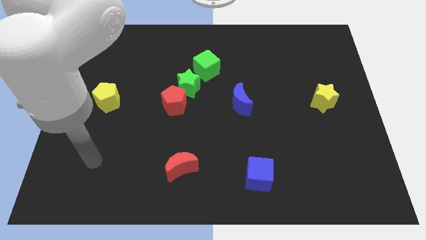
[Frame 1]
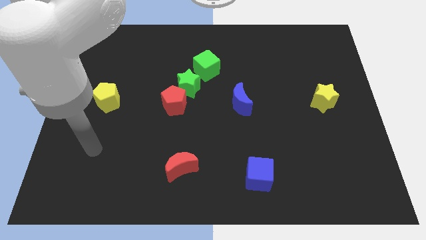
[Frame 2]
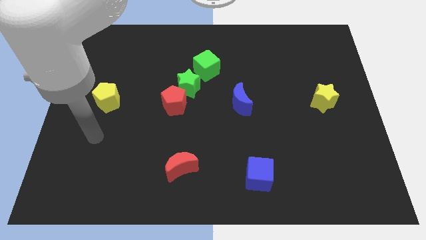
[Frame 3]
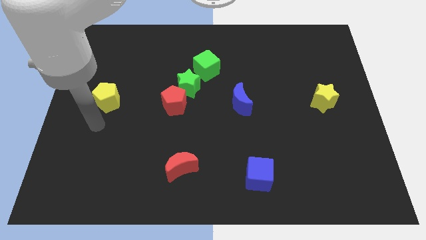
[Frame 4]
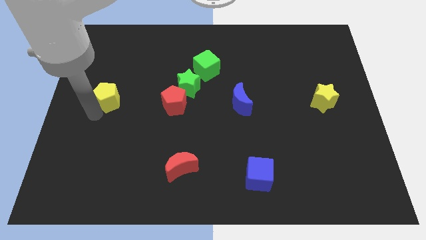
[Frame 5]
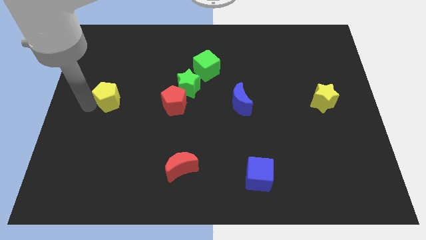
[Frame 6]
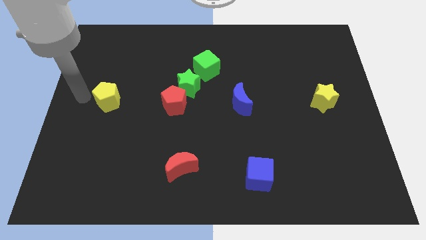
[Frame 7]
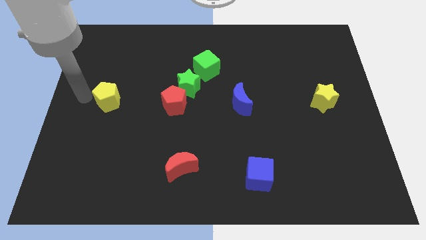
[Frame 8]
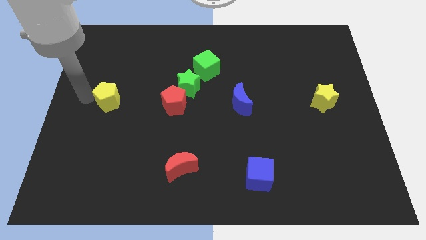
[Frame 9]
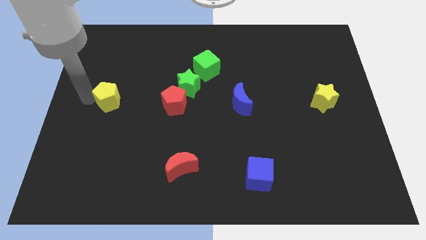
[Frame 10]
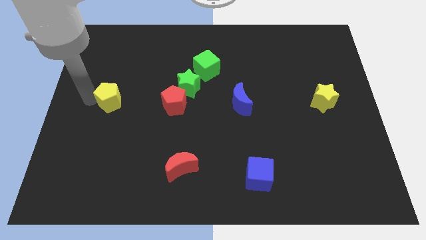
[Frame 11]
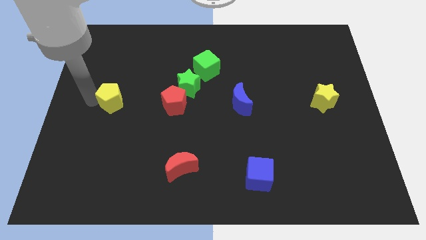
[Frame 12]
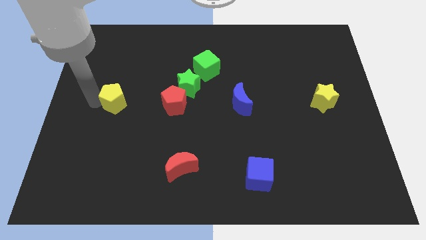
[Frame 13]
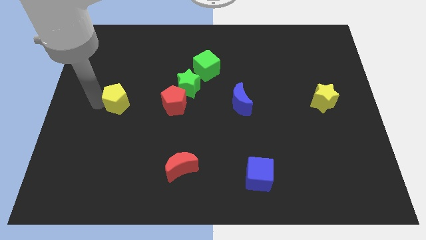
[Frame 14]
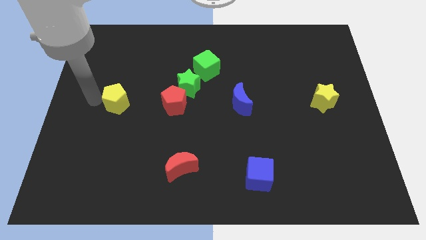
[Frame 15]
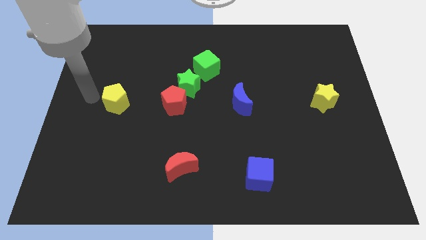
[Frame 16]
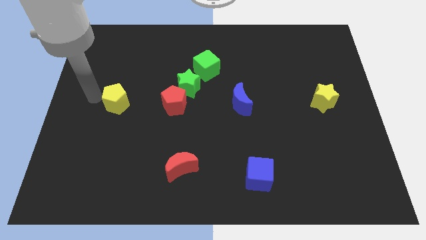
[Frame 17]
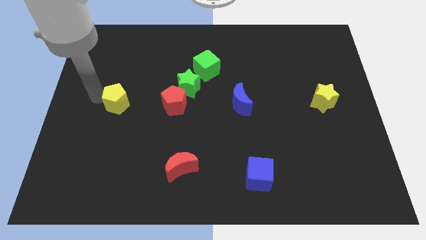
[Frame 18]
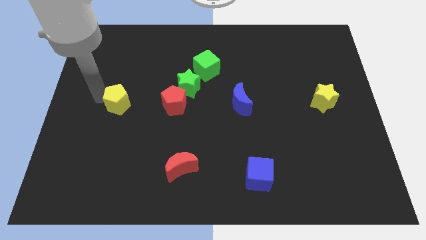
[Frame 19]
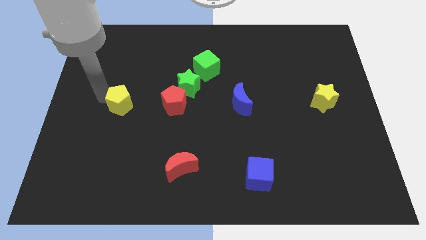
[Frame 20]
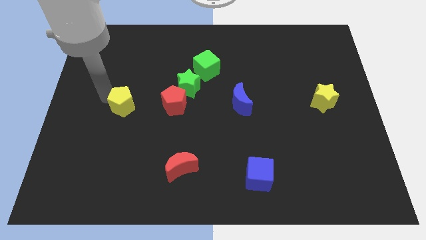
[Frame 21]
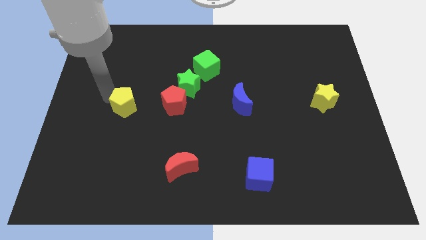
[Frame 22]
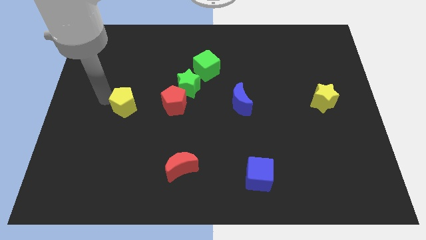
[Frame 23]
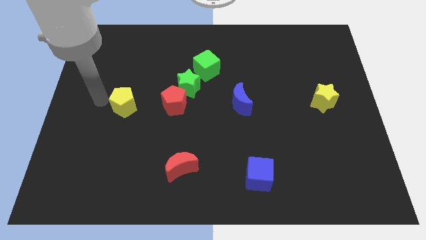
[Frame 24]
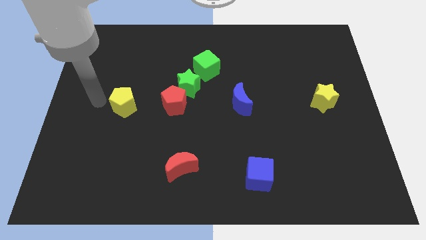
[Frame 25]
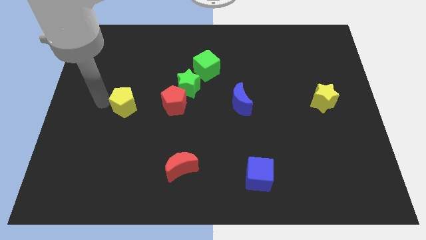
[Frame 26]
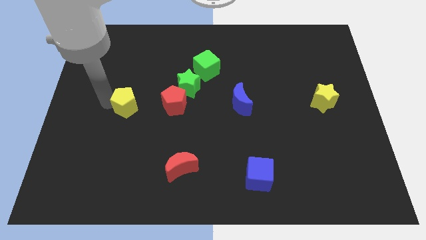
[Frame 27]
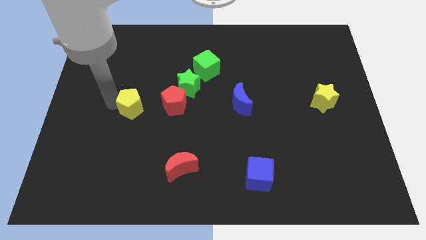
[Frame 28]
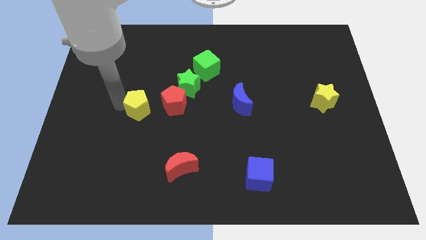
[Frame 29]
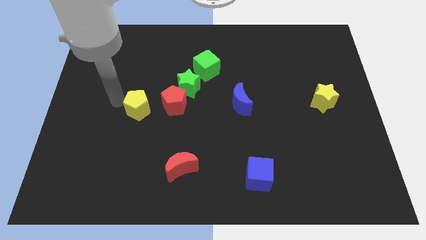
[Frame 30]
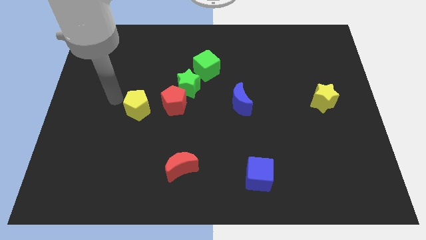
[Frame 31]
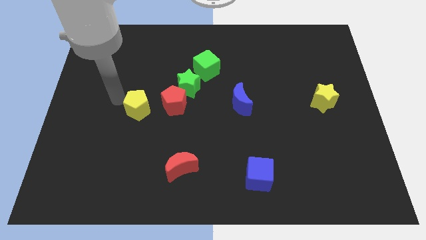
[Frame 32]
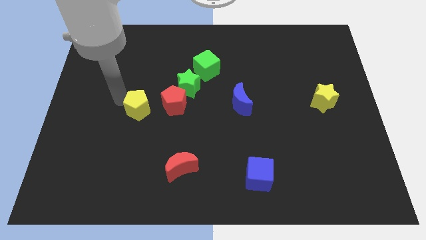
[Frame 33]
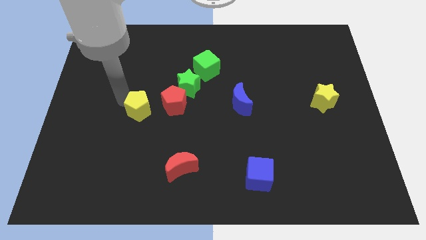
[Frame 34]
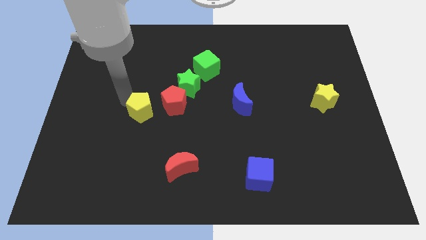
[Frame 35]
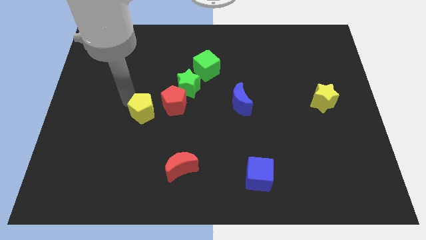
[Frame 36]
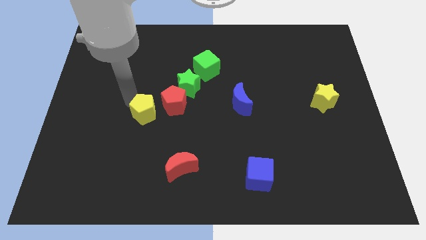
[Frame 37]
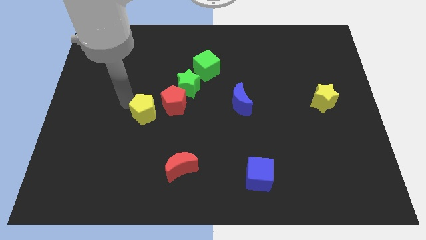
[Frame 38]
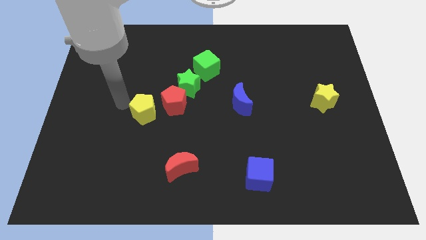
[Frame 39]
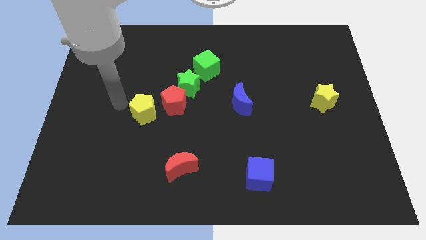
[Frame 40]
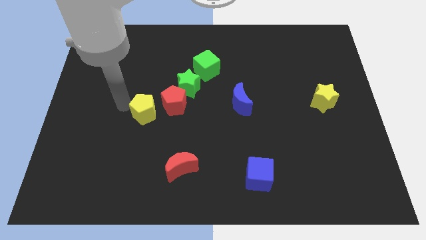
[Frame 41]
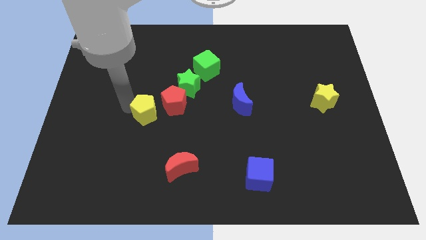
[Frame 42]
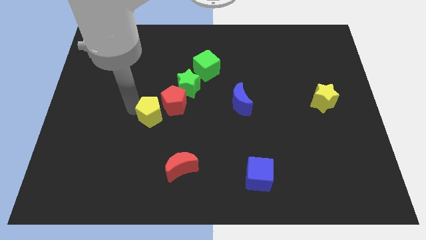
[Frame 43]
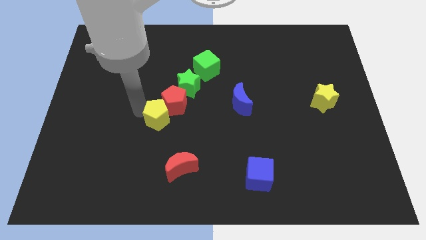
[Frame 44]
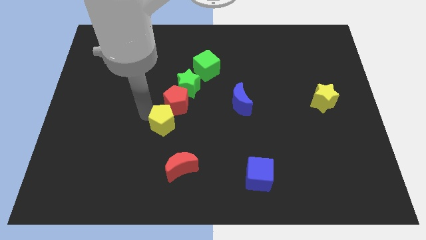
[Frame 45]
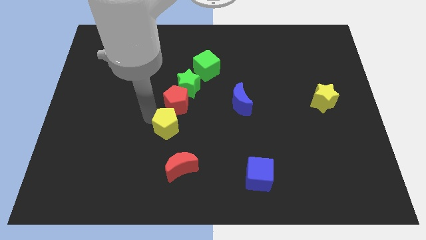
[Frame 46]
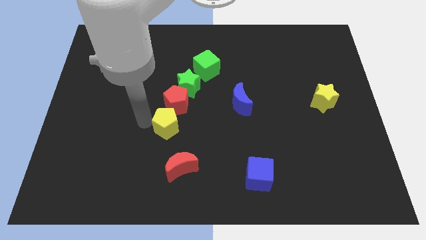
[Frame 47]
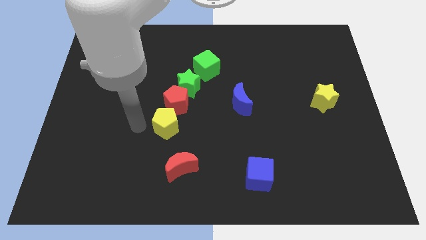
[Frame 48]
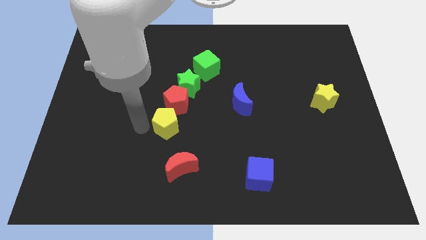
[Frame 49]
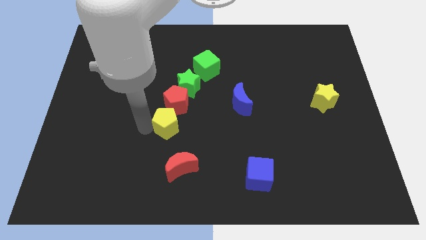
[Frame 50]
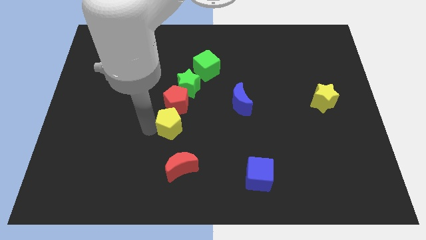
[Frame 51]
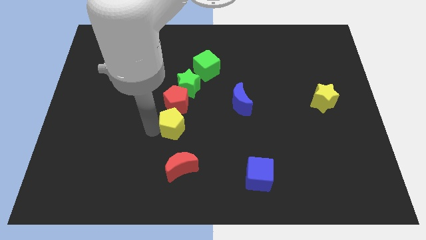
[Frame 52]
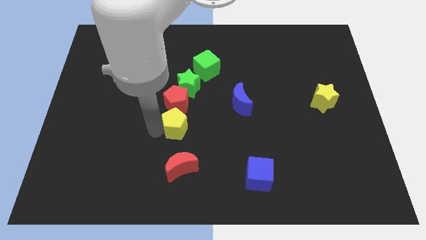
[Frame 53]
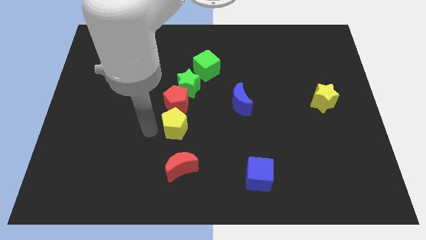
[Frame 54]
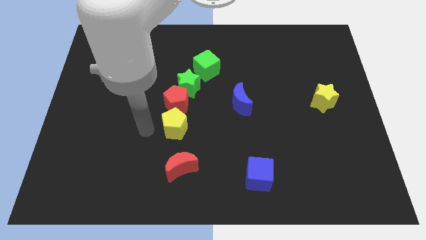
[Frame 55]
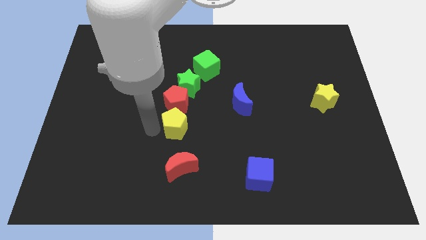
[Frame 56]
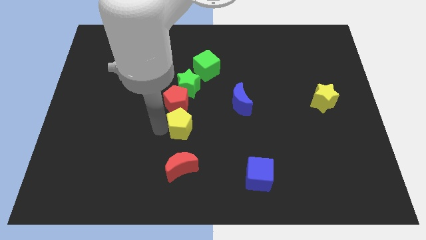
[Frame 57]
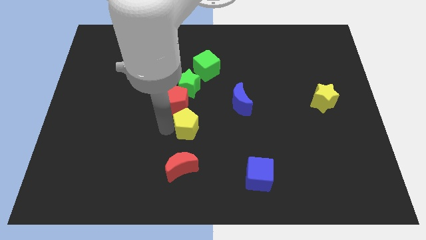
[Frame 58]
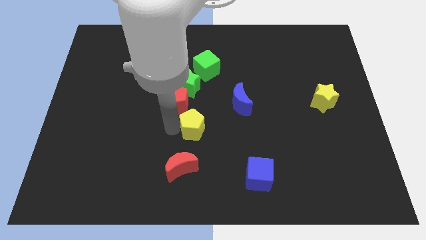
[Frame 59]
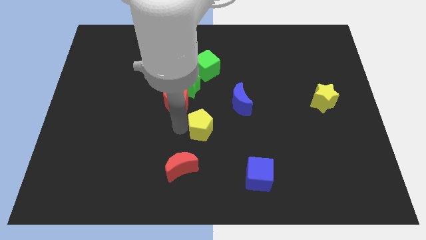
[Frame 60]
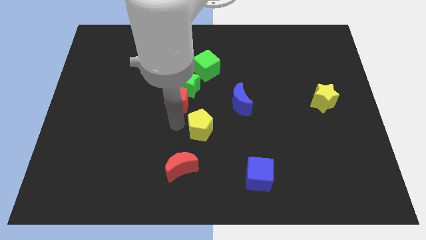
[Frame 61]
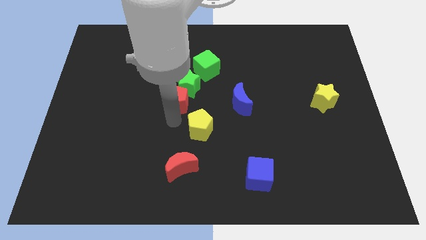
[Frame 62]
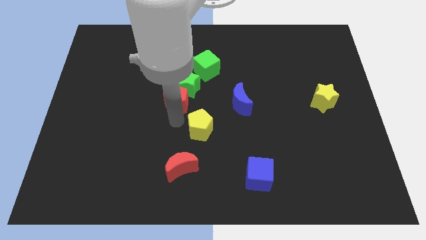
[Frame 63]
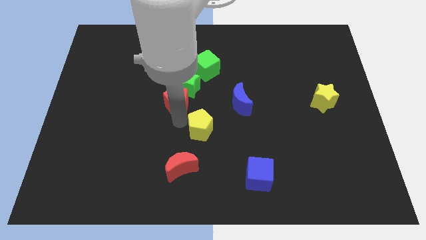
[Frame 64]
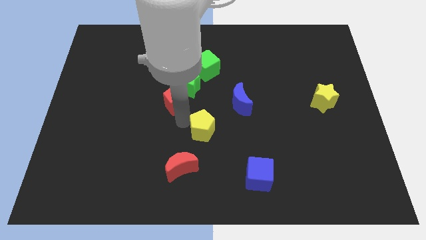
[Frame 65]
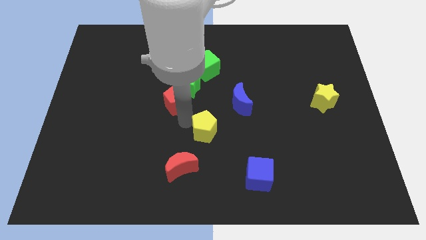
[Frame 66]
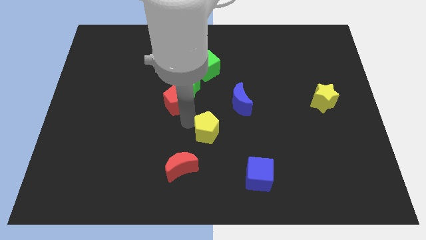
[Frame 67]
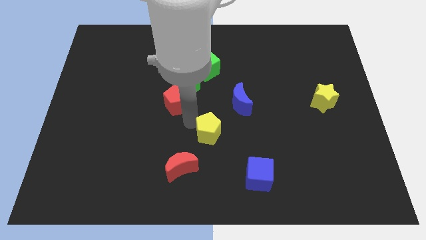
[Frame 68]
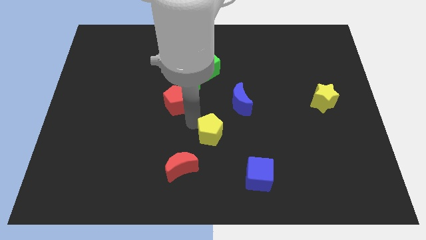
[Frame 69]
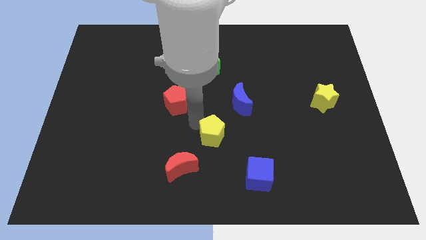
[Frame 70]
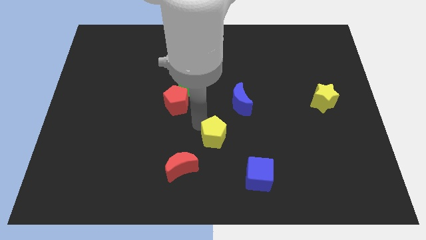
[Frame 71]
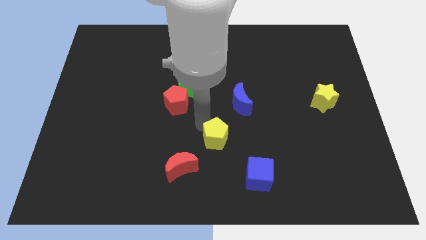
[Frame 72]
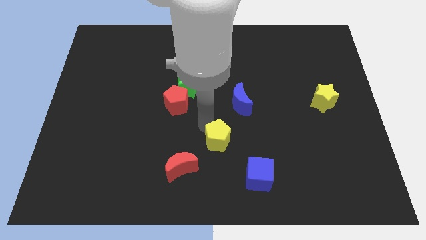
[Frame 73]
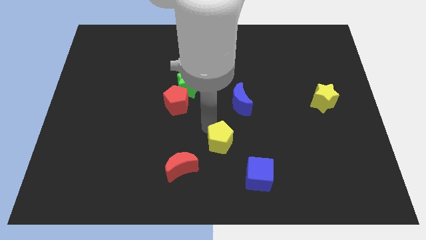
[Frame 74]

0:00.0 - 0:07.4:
put the yellow pentagon to the bottom side of the blue moon
